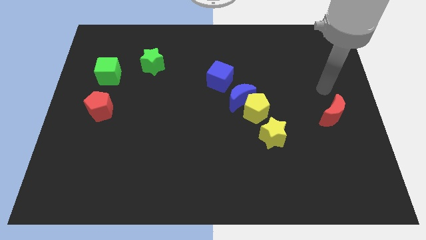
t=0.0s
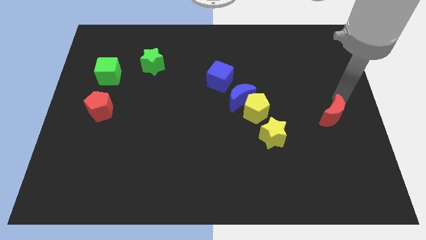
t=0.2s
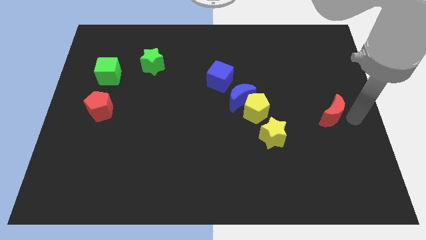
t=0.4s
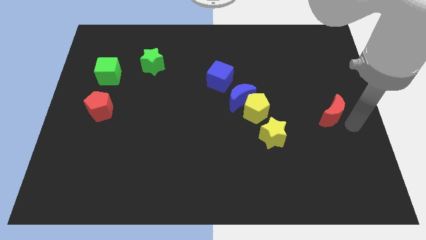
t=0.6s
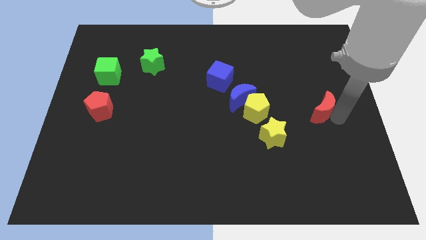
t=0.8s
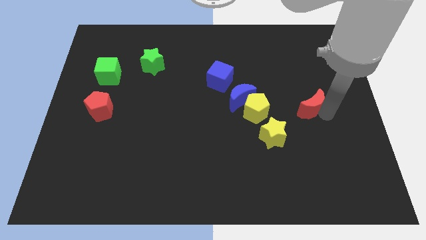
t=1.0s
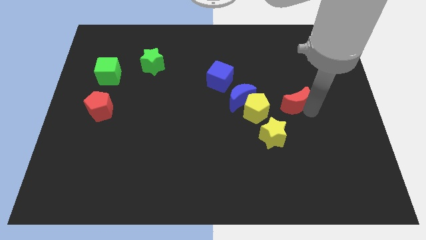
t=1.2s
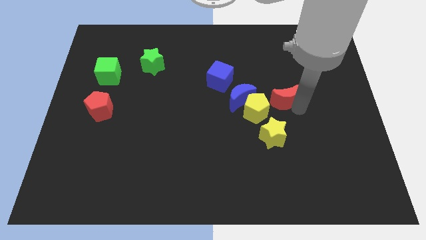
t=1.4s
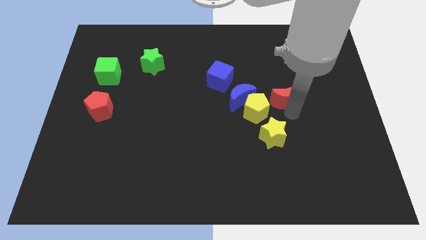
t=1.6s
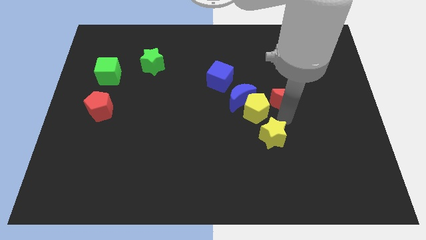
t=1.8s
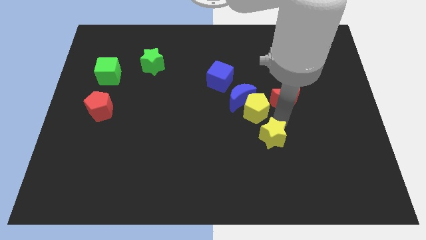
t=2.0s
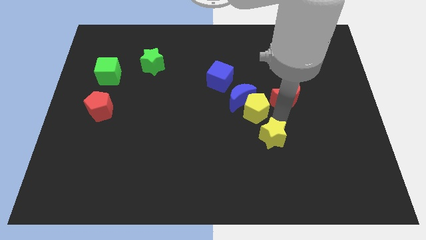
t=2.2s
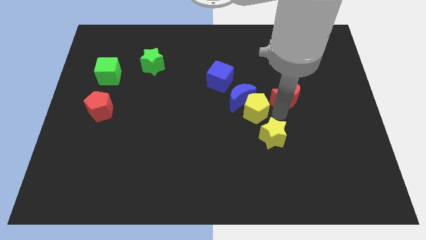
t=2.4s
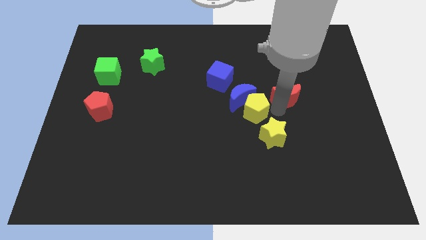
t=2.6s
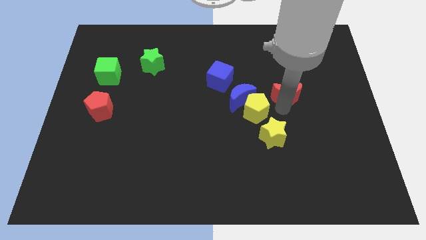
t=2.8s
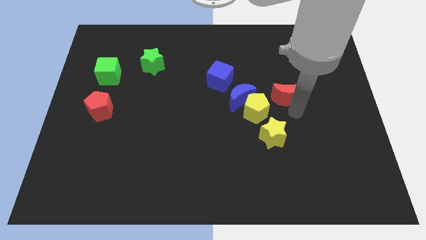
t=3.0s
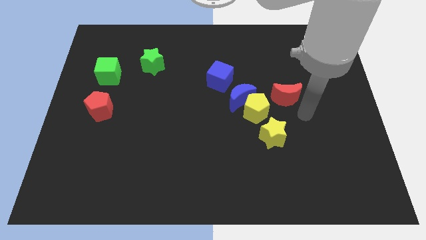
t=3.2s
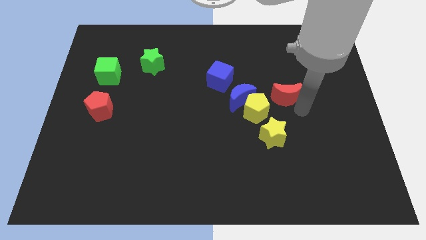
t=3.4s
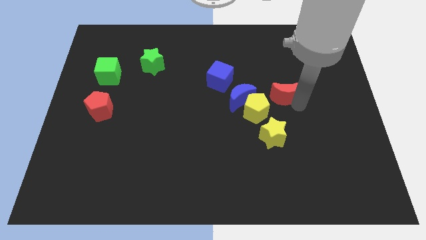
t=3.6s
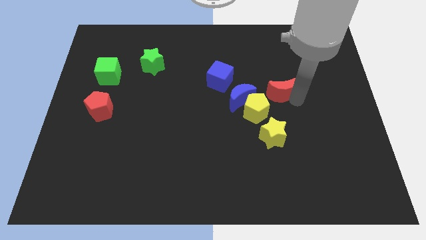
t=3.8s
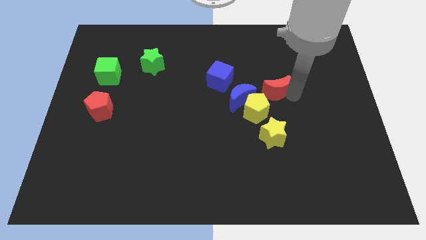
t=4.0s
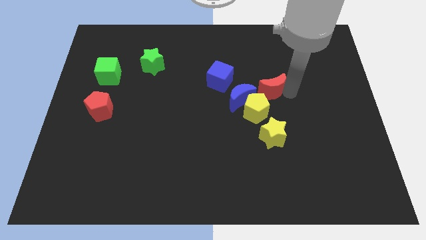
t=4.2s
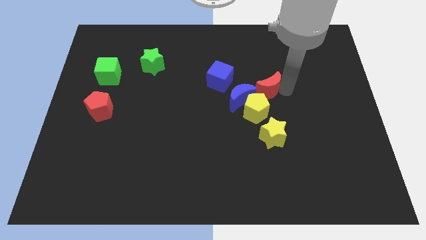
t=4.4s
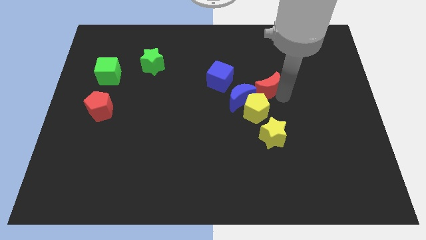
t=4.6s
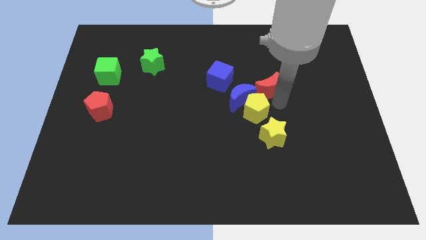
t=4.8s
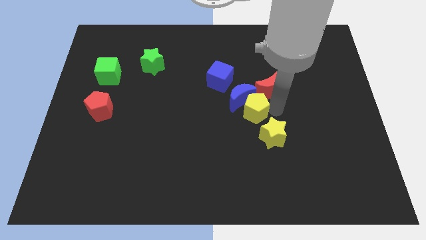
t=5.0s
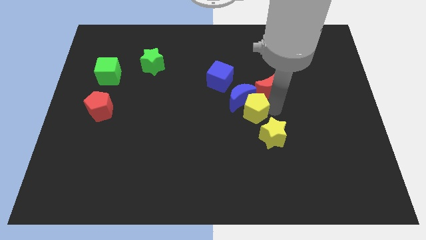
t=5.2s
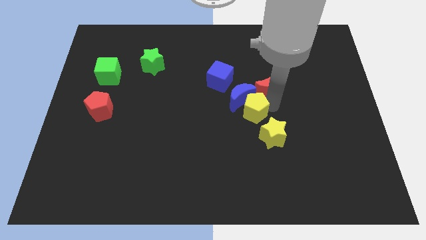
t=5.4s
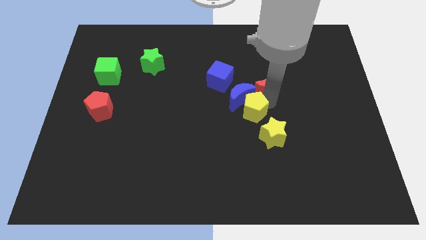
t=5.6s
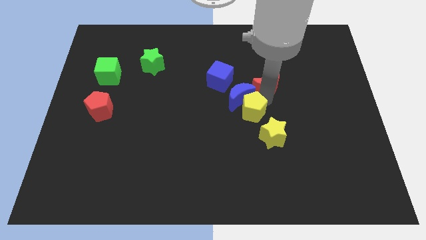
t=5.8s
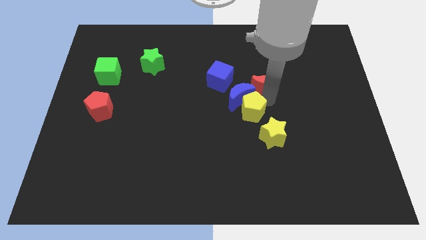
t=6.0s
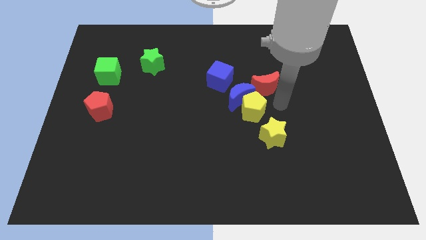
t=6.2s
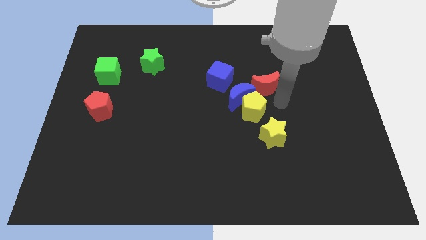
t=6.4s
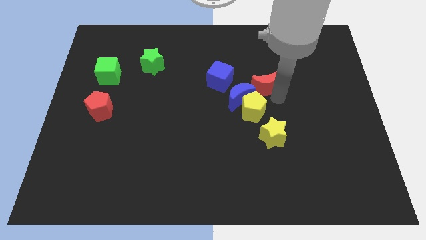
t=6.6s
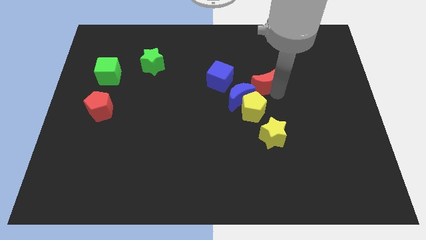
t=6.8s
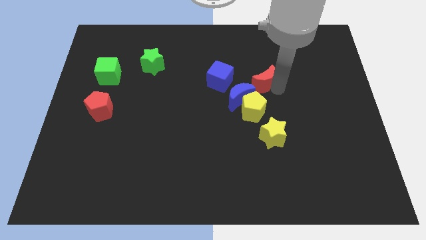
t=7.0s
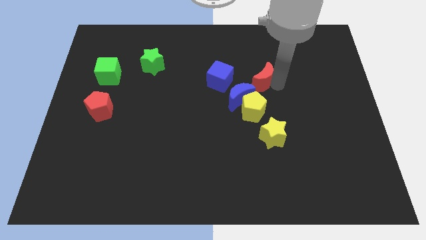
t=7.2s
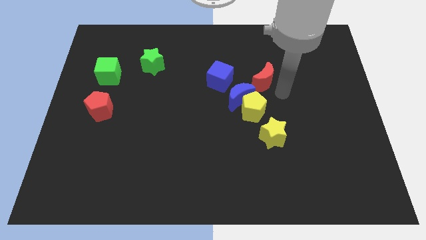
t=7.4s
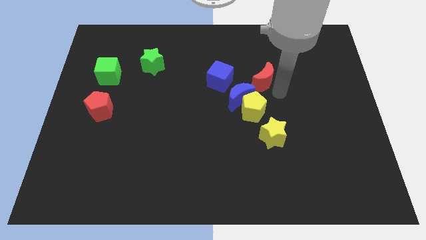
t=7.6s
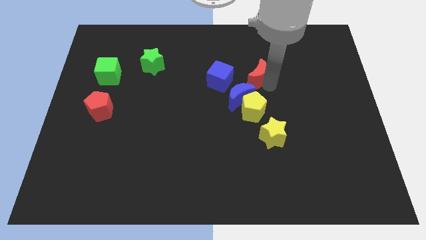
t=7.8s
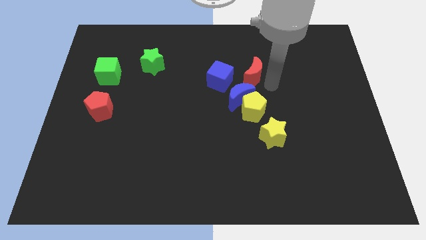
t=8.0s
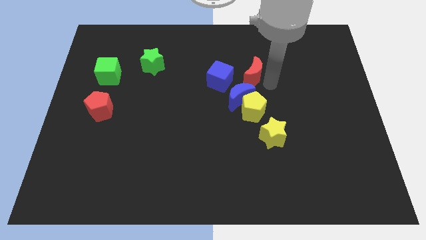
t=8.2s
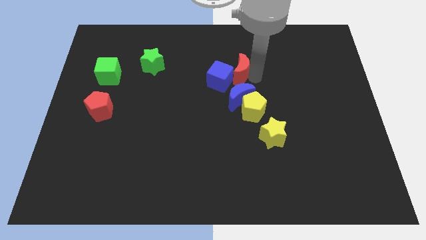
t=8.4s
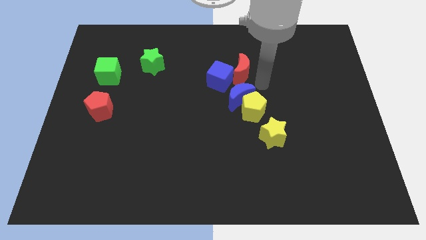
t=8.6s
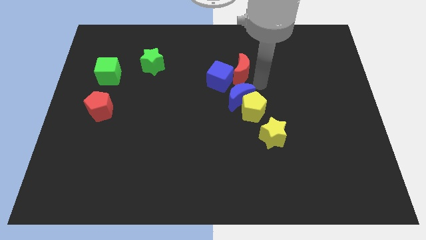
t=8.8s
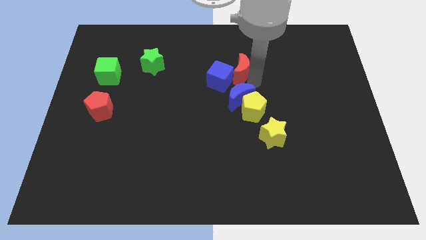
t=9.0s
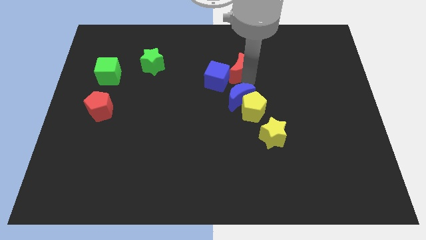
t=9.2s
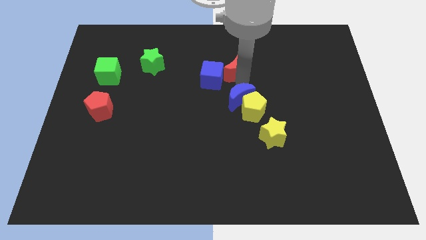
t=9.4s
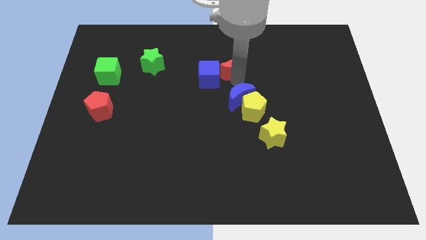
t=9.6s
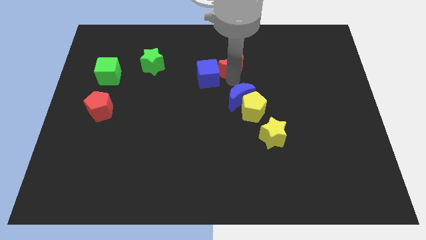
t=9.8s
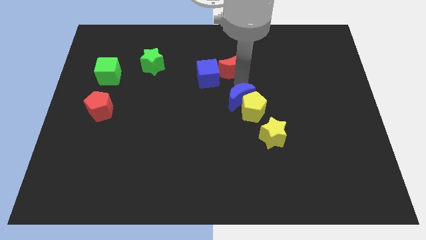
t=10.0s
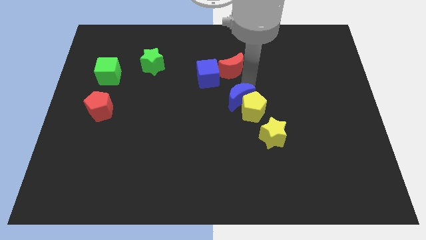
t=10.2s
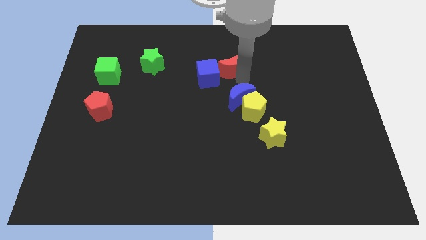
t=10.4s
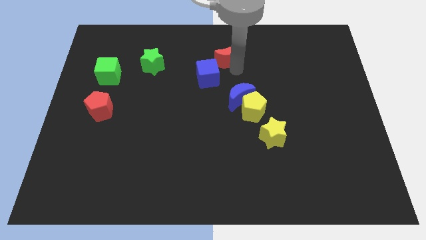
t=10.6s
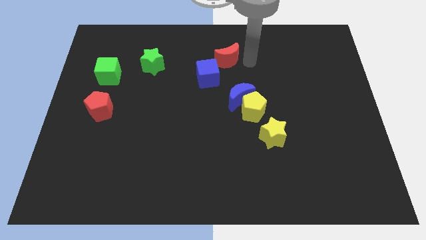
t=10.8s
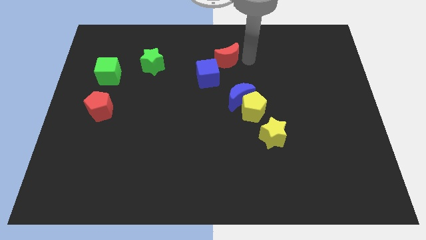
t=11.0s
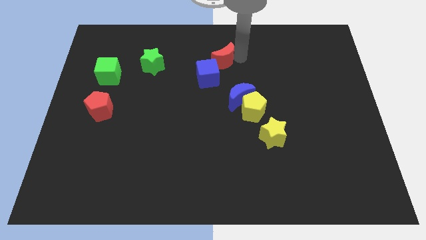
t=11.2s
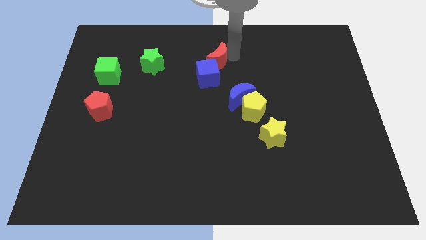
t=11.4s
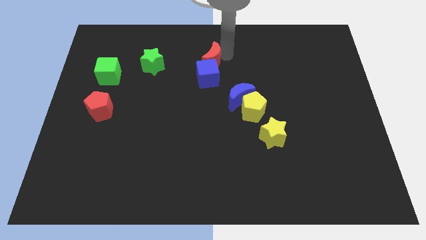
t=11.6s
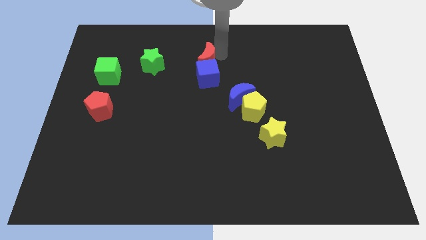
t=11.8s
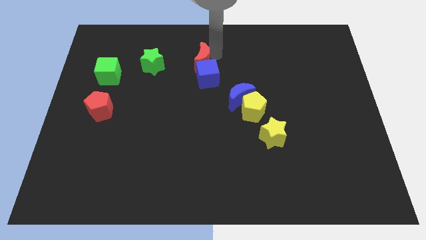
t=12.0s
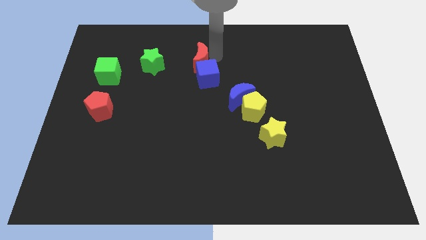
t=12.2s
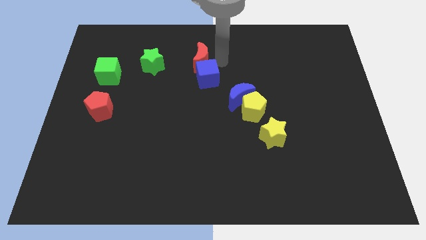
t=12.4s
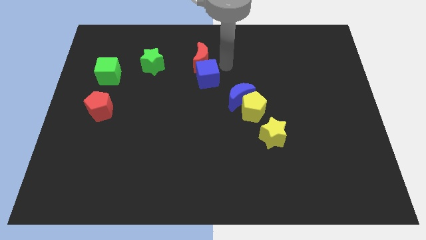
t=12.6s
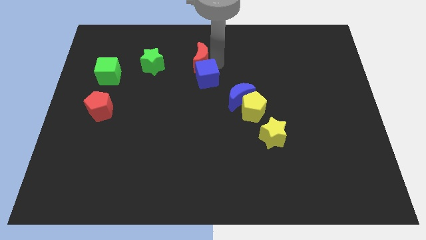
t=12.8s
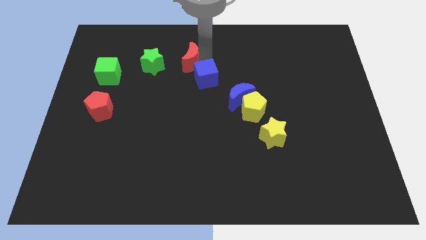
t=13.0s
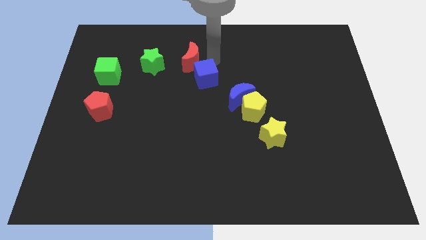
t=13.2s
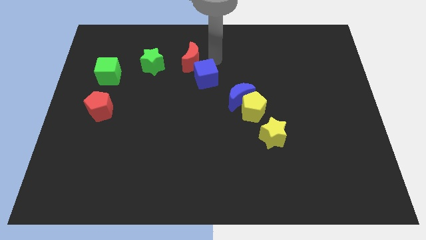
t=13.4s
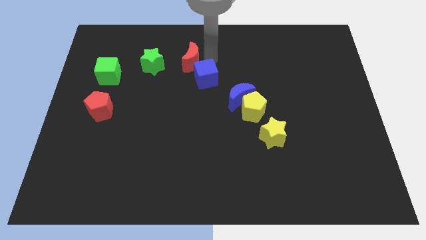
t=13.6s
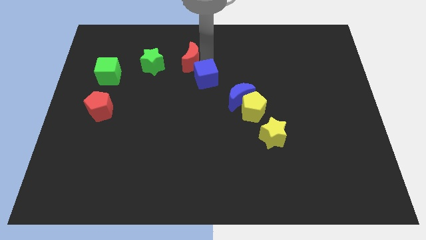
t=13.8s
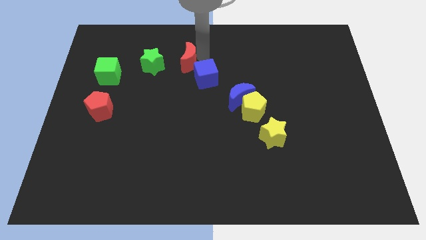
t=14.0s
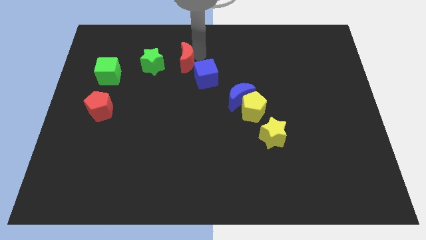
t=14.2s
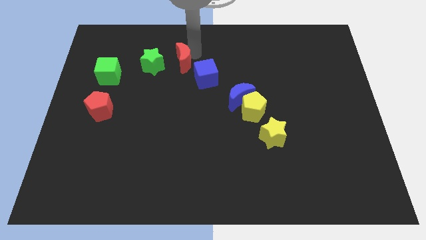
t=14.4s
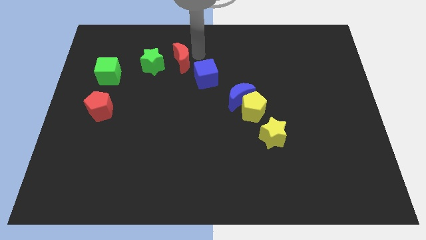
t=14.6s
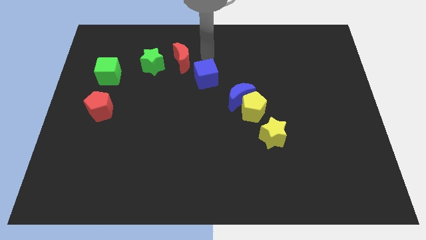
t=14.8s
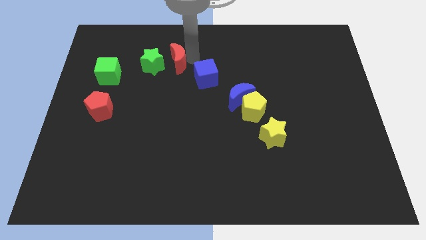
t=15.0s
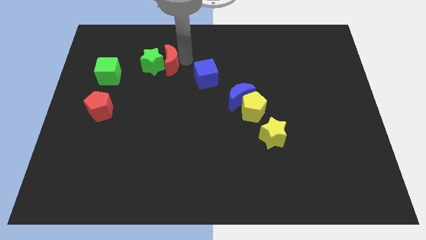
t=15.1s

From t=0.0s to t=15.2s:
push the red moon close to the green star
